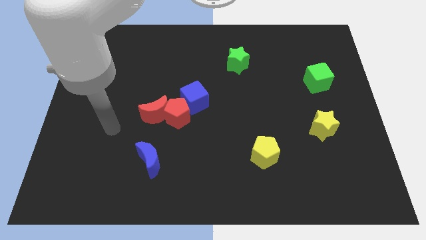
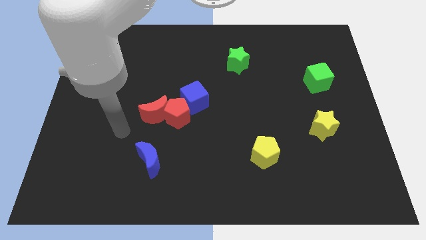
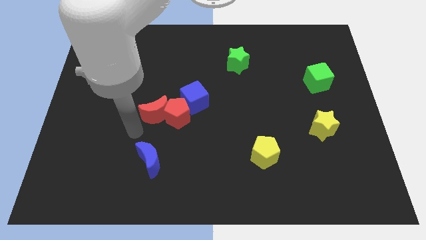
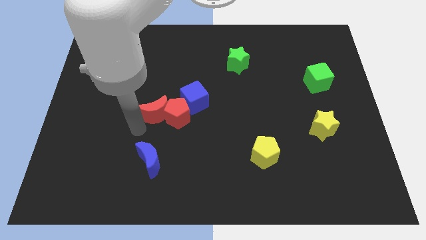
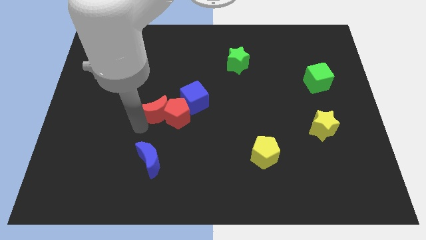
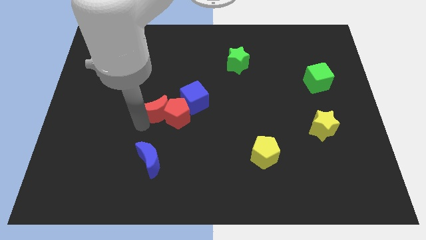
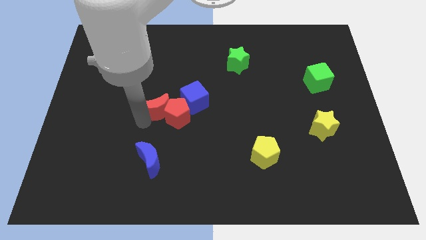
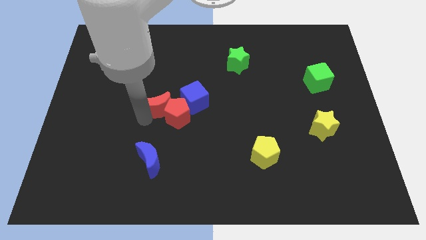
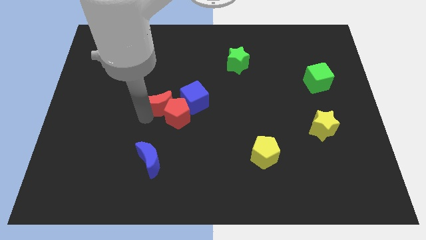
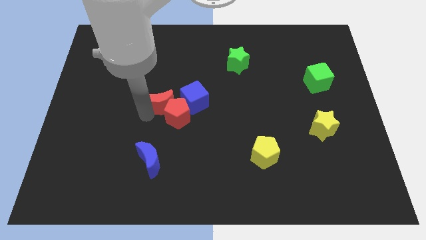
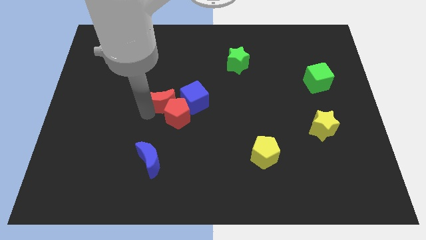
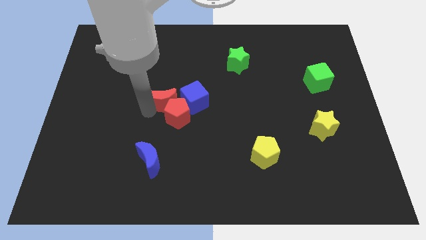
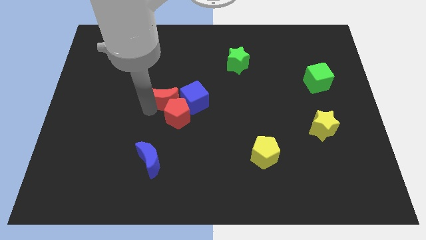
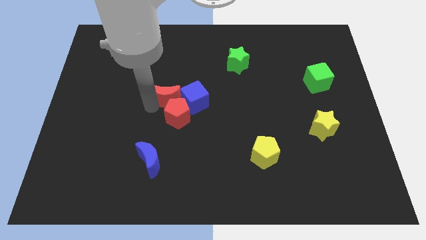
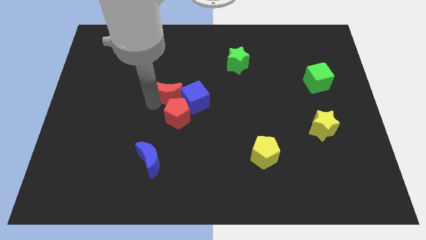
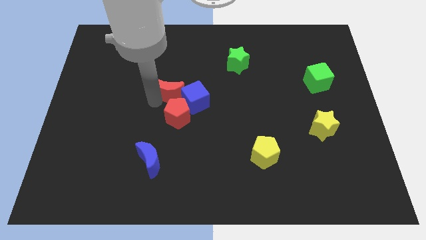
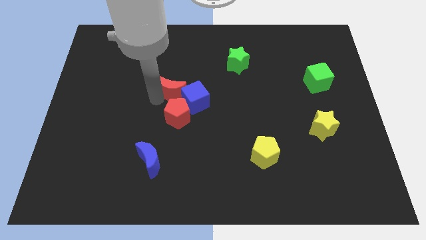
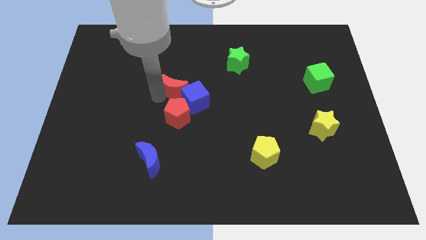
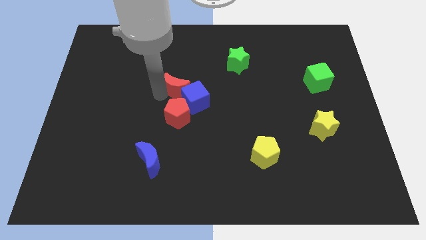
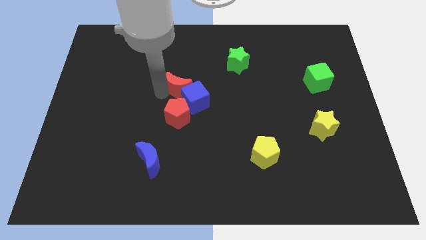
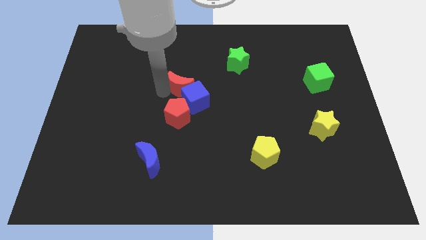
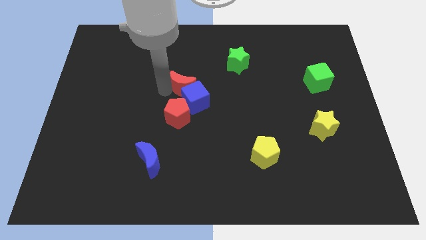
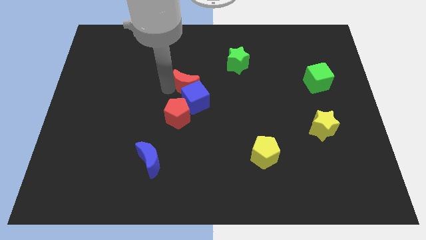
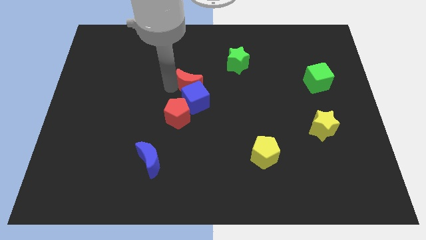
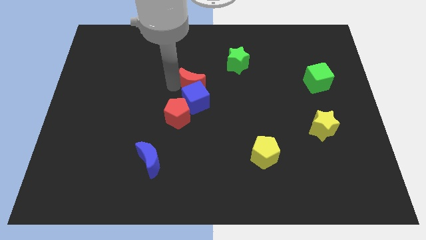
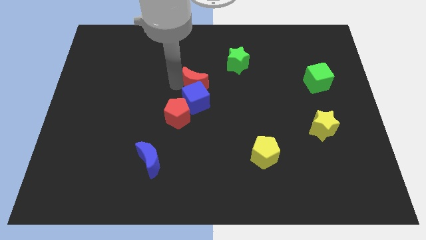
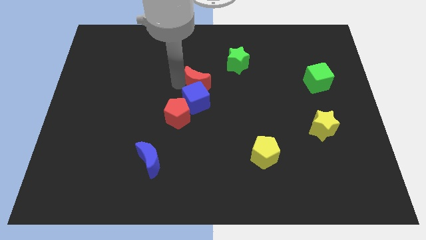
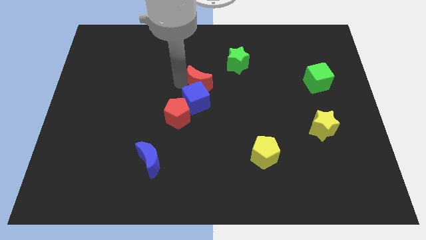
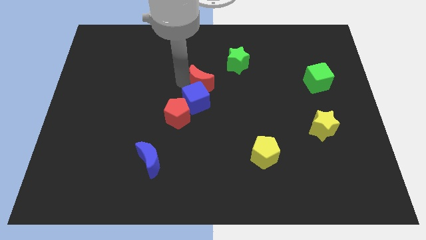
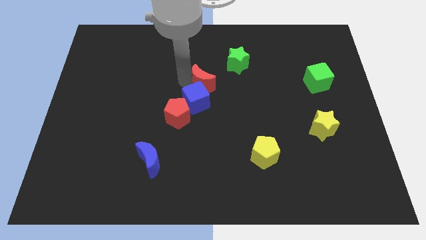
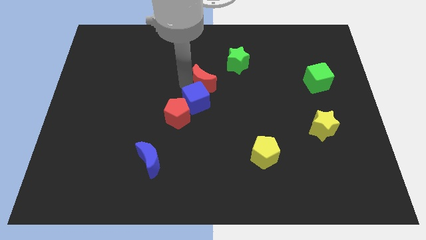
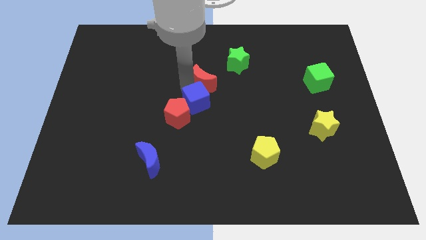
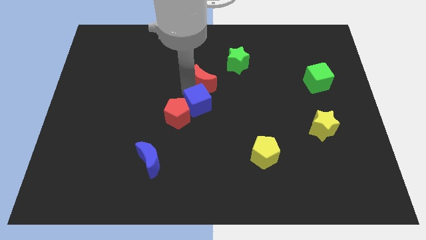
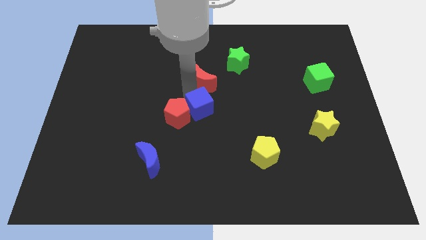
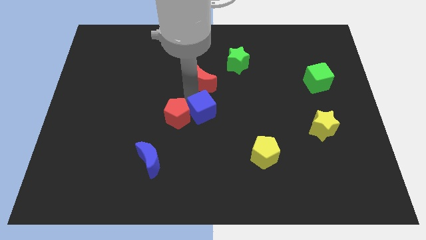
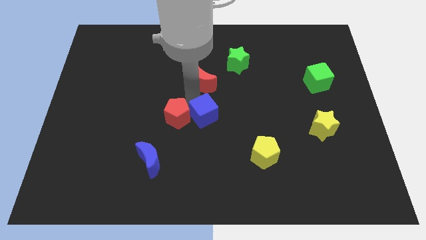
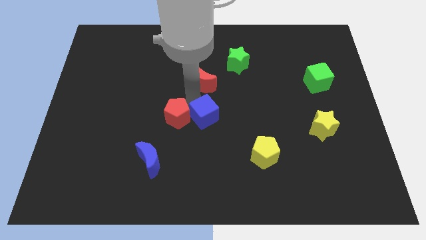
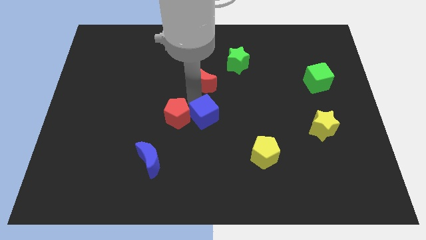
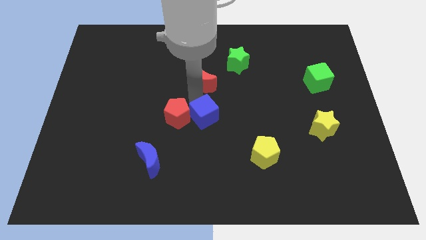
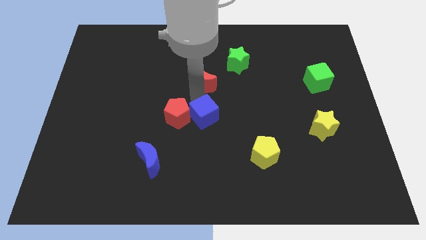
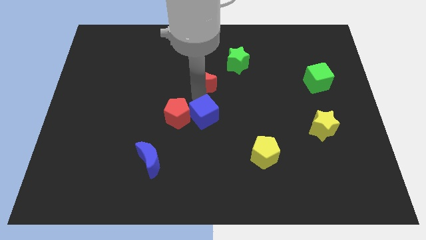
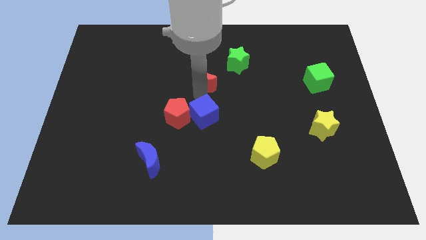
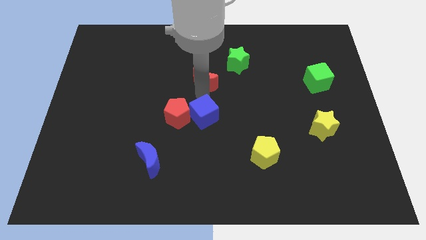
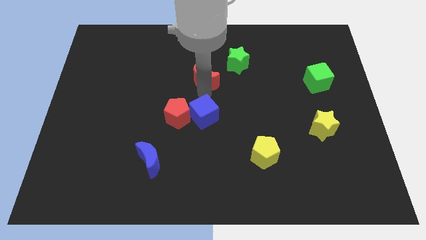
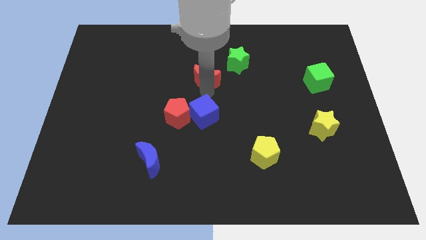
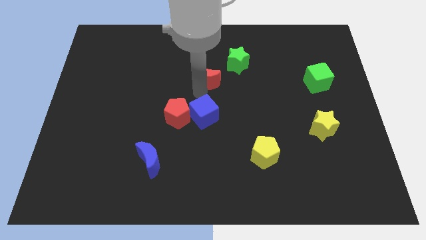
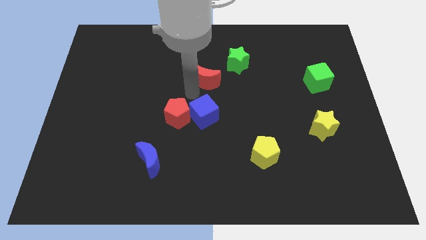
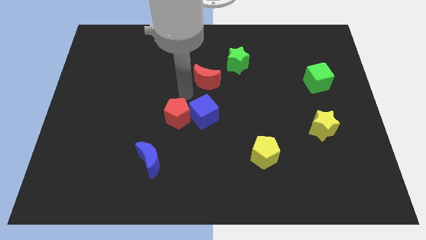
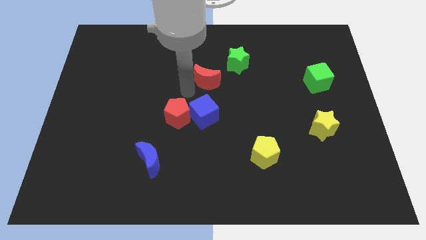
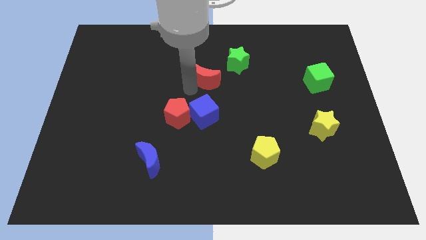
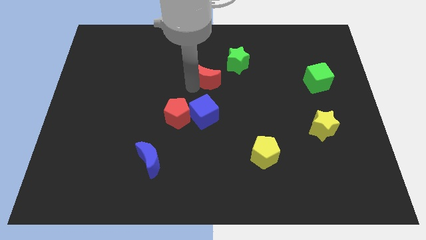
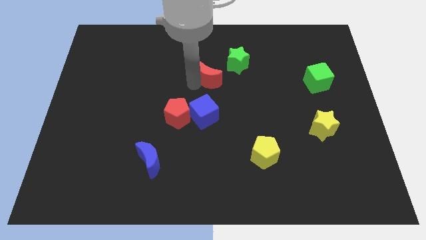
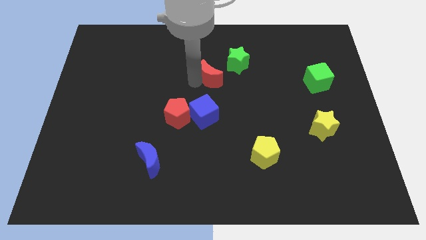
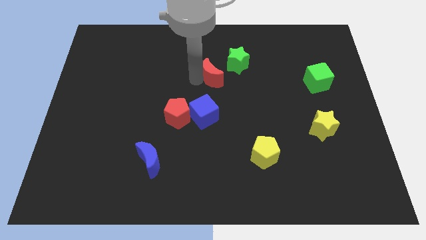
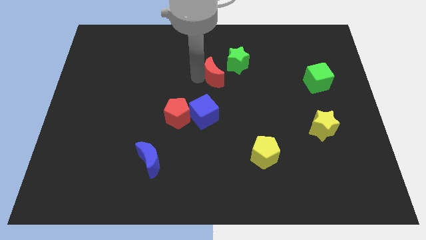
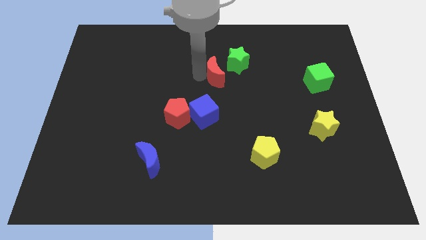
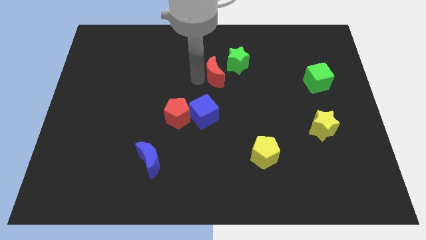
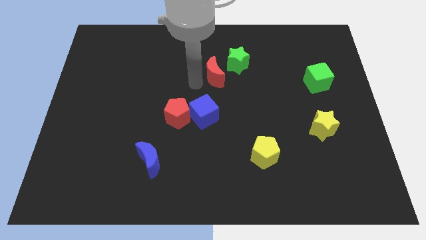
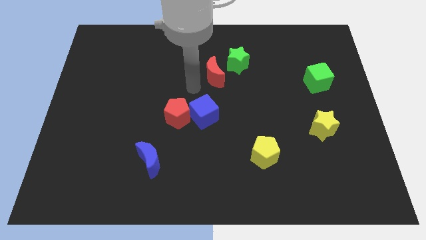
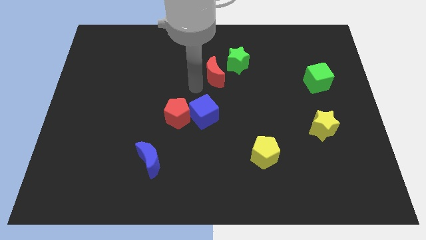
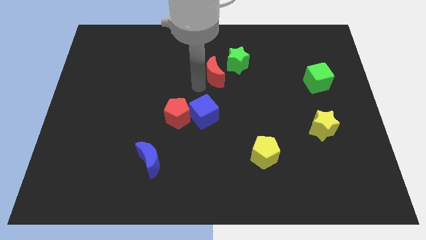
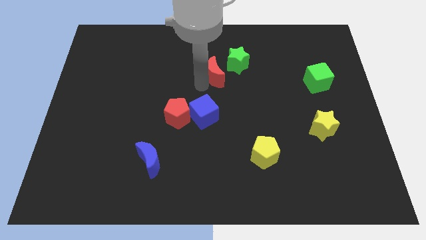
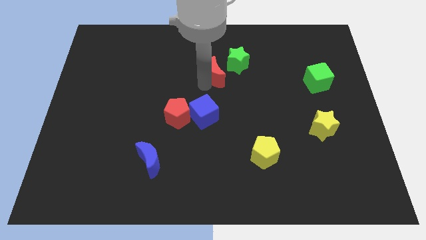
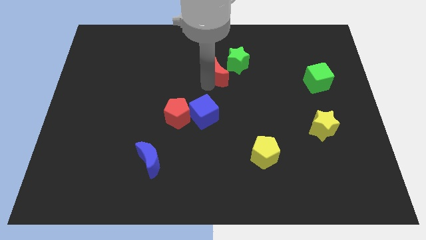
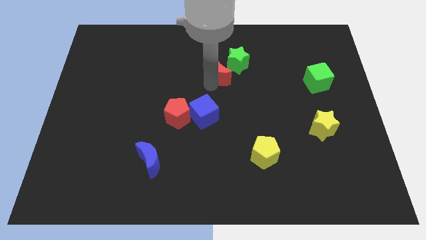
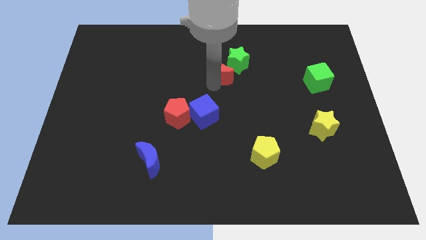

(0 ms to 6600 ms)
move the red moon to the green star

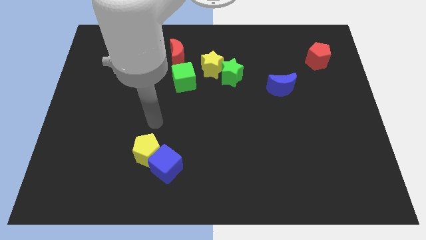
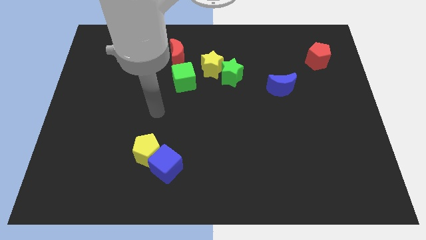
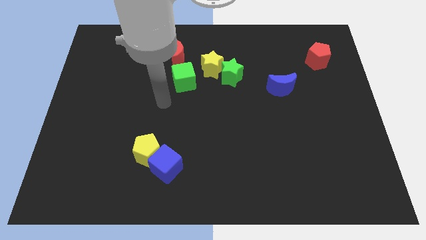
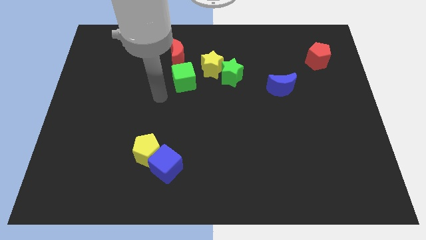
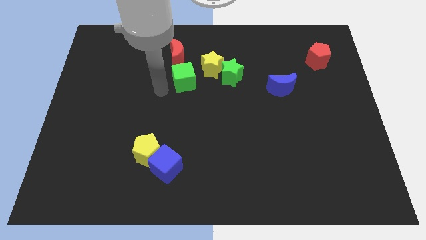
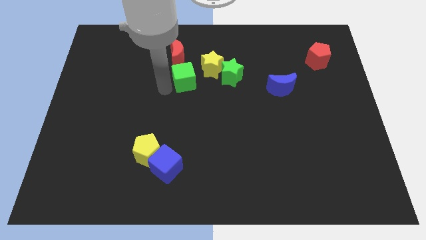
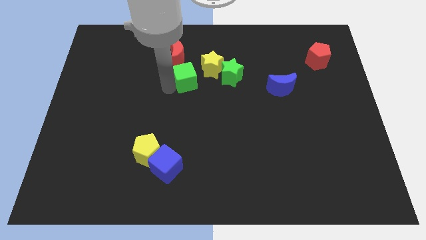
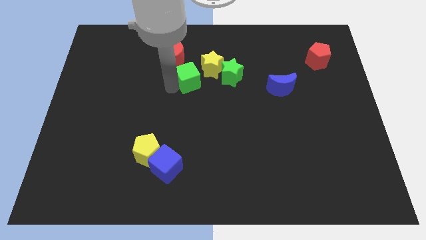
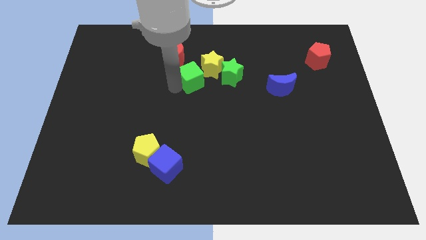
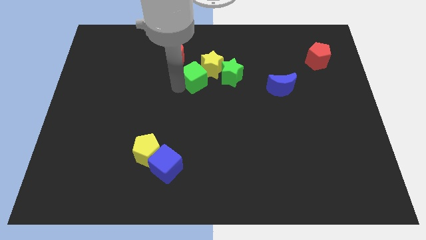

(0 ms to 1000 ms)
put the green cube next to the yellow star
